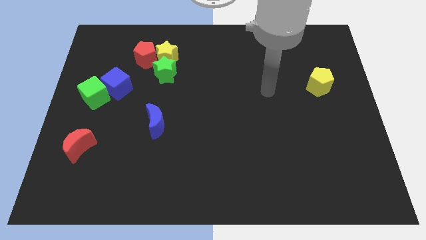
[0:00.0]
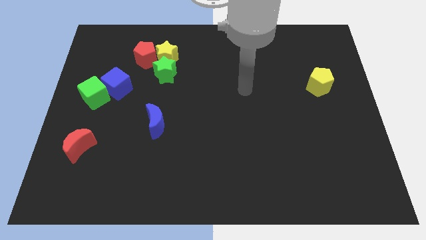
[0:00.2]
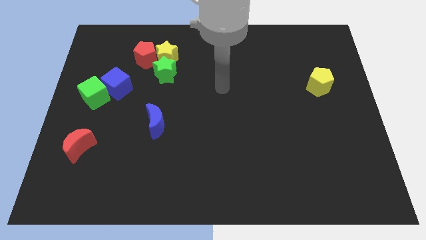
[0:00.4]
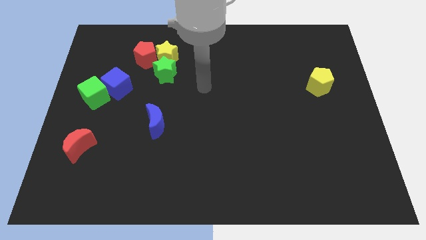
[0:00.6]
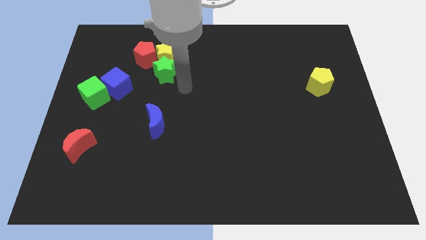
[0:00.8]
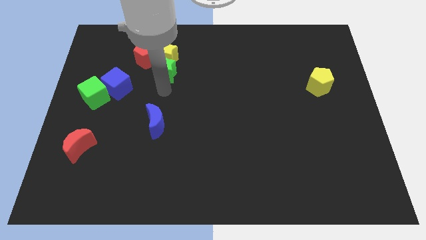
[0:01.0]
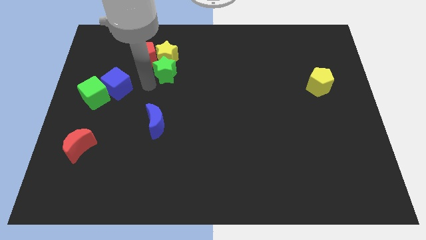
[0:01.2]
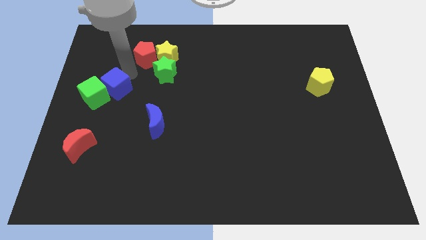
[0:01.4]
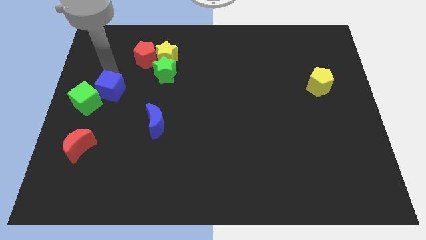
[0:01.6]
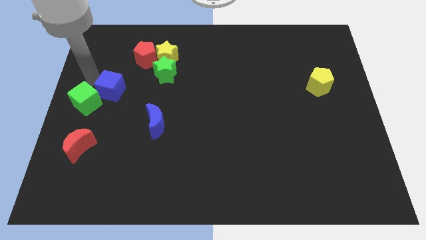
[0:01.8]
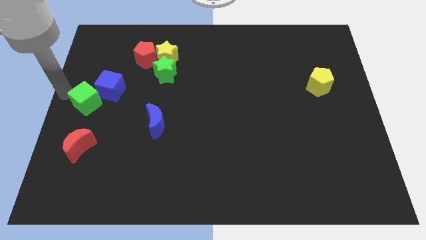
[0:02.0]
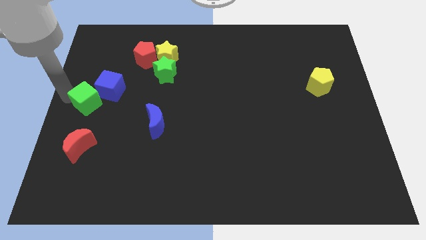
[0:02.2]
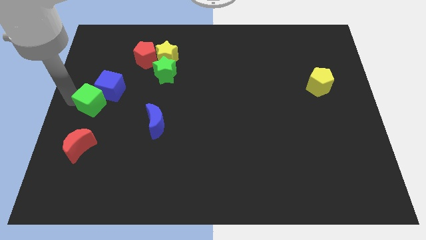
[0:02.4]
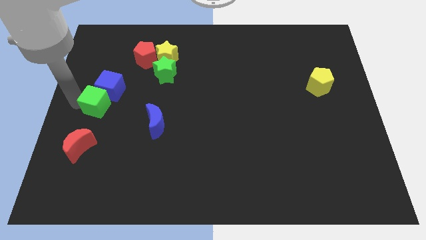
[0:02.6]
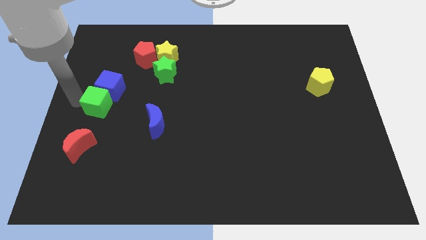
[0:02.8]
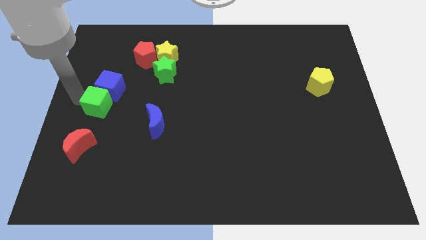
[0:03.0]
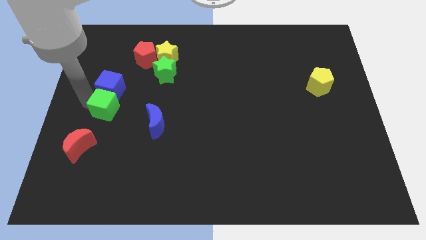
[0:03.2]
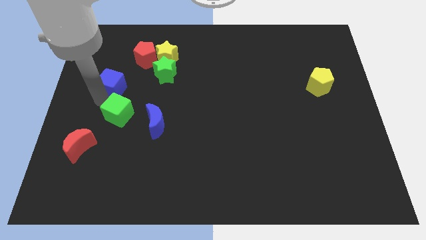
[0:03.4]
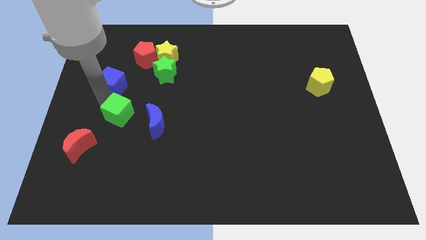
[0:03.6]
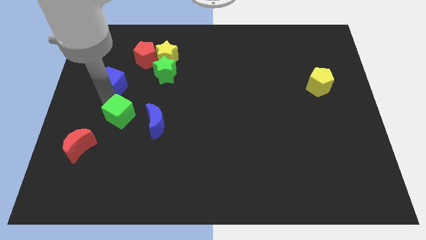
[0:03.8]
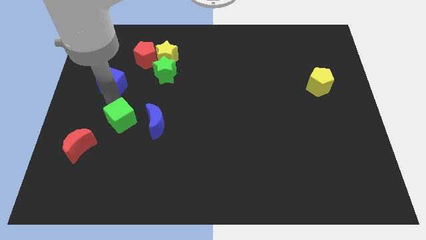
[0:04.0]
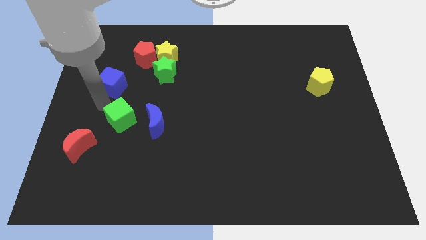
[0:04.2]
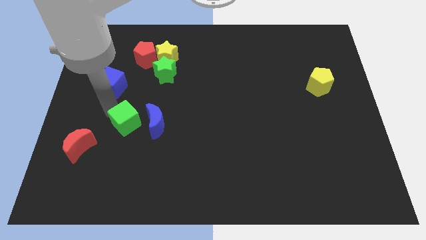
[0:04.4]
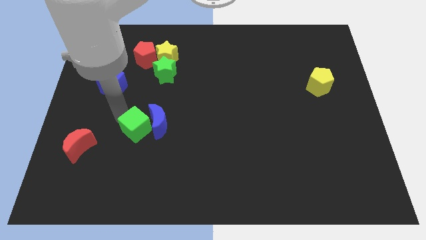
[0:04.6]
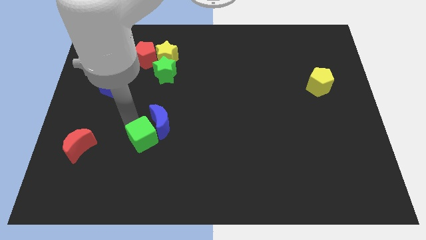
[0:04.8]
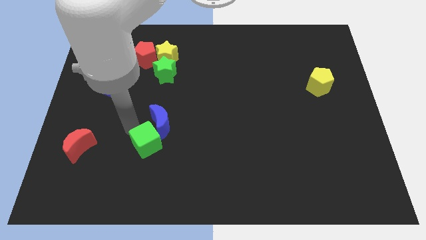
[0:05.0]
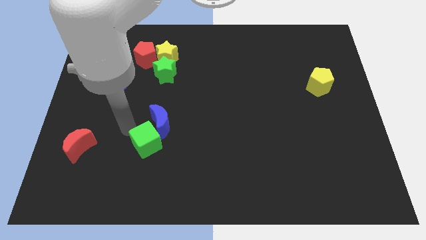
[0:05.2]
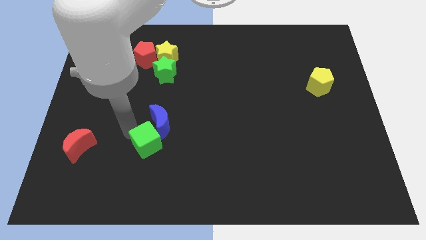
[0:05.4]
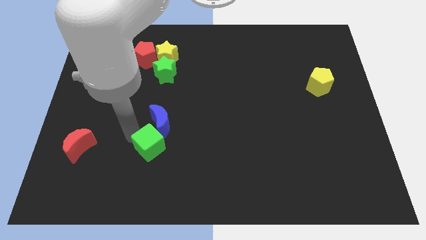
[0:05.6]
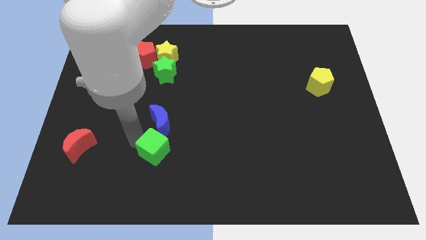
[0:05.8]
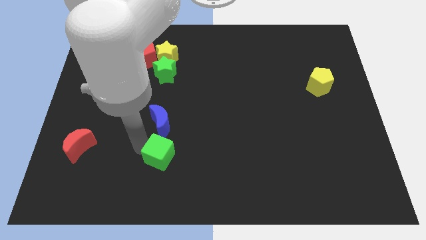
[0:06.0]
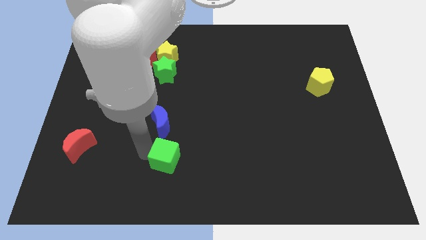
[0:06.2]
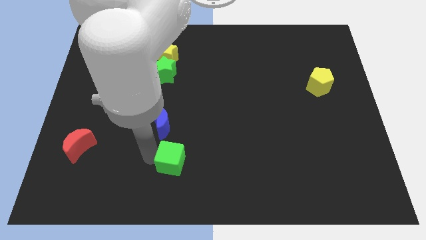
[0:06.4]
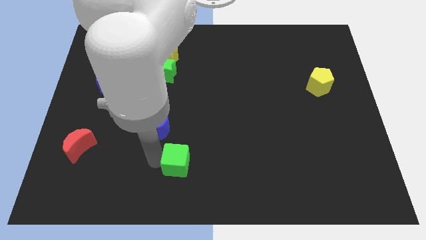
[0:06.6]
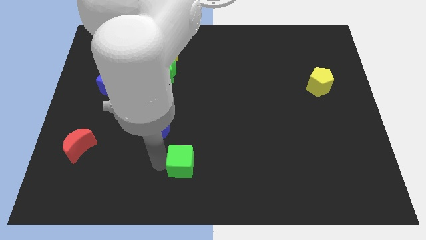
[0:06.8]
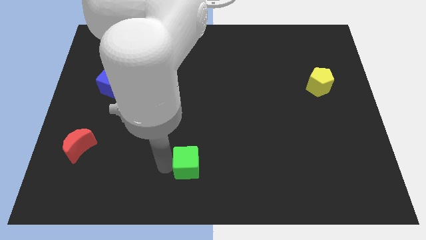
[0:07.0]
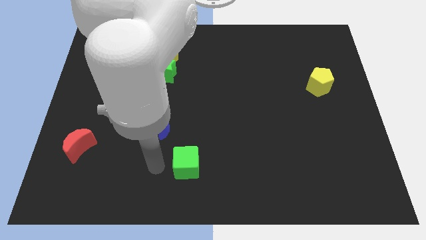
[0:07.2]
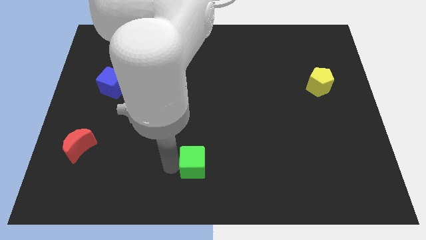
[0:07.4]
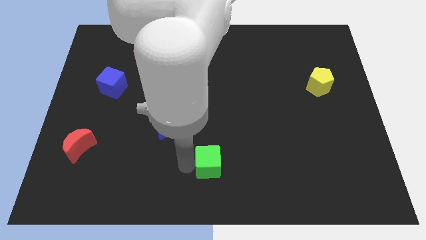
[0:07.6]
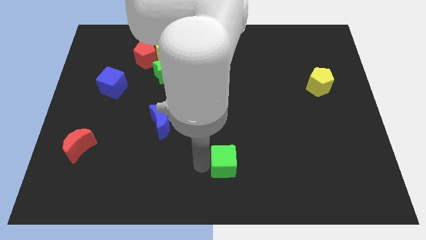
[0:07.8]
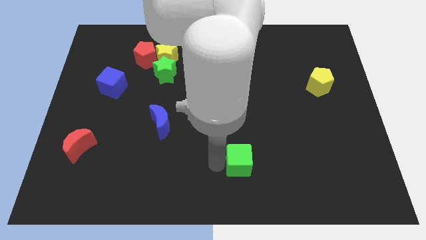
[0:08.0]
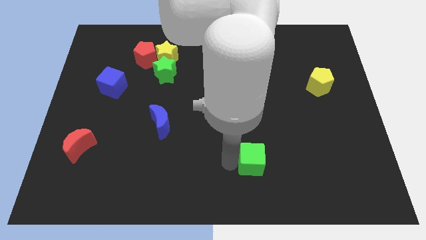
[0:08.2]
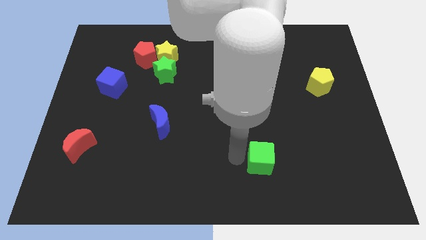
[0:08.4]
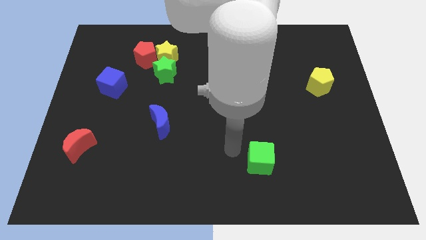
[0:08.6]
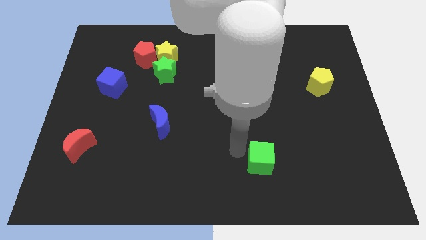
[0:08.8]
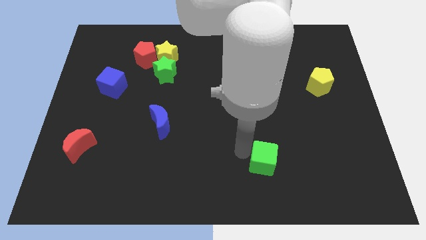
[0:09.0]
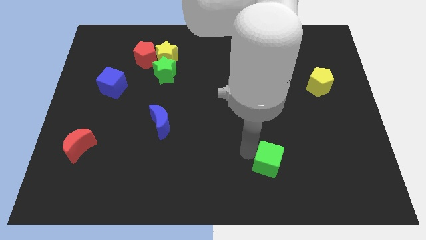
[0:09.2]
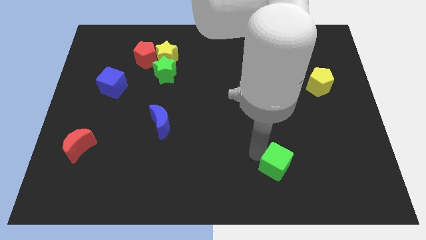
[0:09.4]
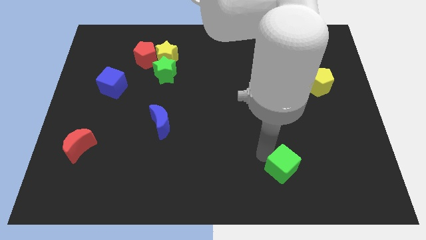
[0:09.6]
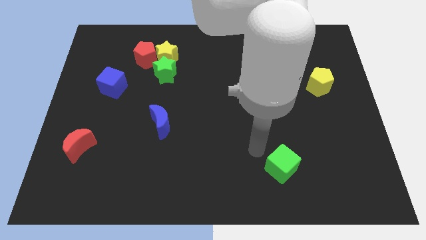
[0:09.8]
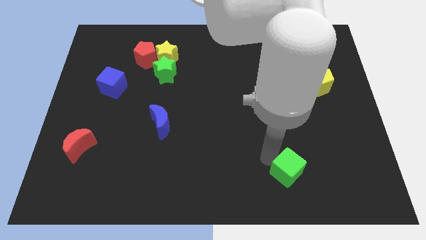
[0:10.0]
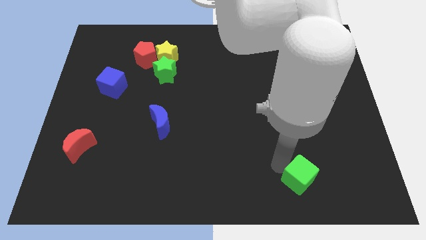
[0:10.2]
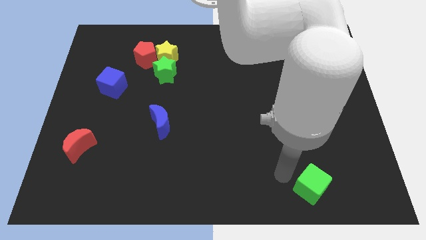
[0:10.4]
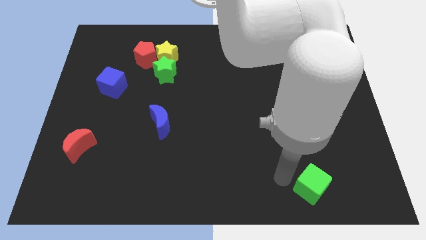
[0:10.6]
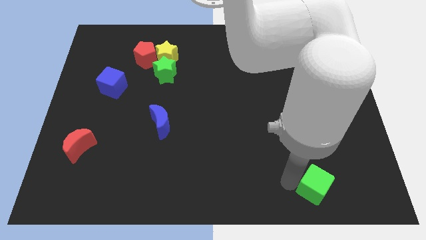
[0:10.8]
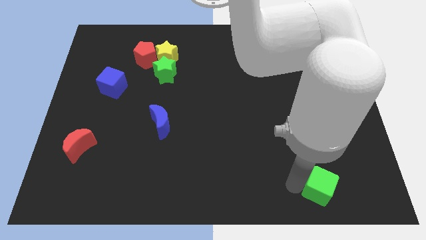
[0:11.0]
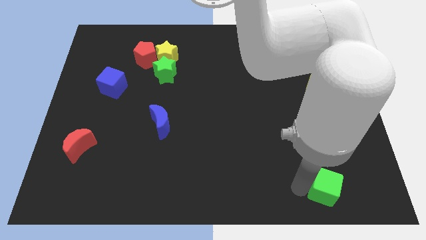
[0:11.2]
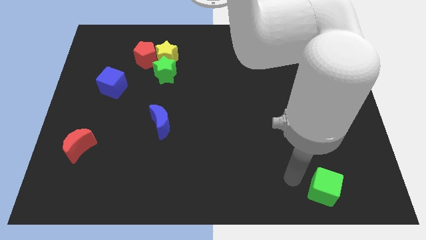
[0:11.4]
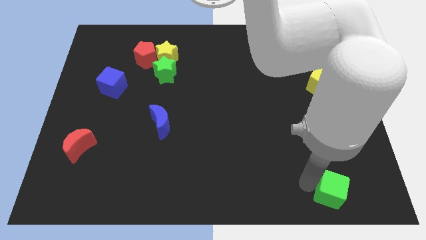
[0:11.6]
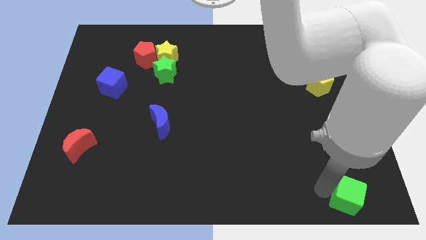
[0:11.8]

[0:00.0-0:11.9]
slide the green cube to the bottom right corner

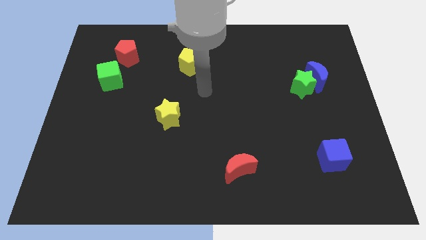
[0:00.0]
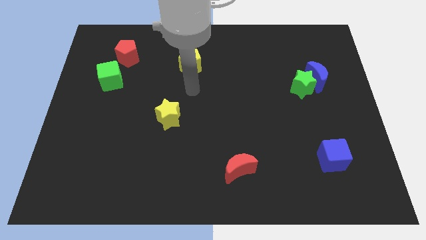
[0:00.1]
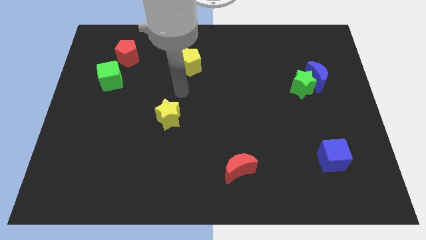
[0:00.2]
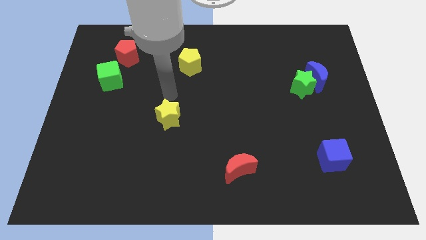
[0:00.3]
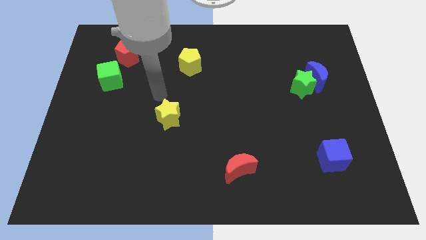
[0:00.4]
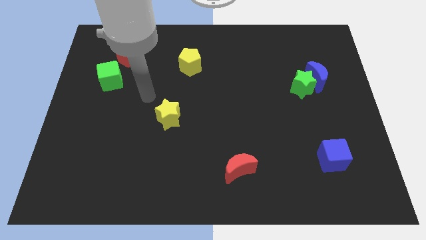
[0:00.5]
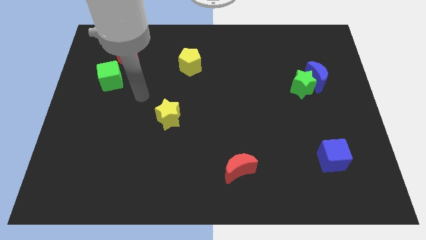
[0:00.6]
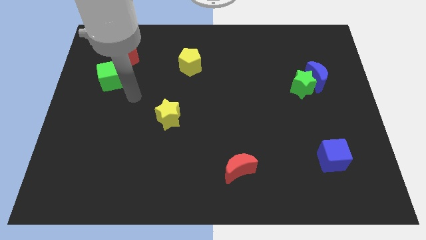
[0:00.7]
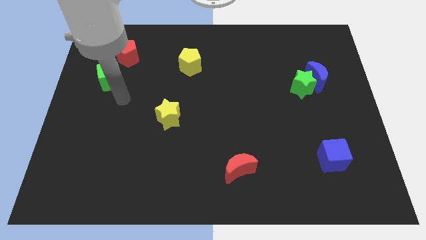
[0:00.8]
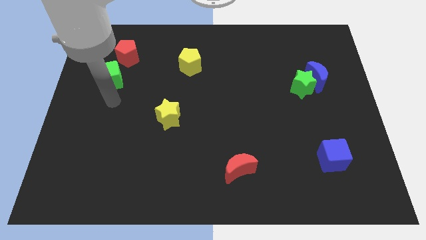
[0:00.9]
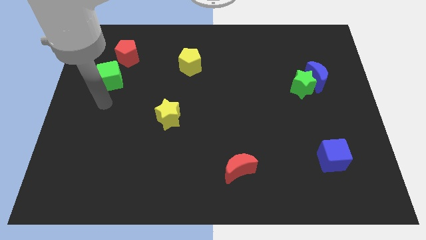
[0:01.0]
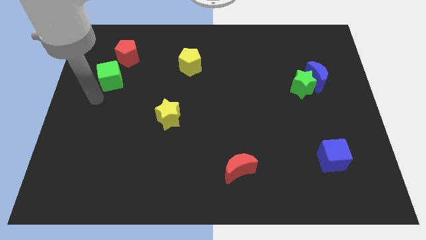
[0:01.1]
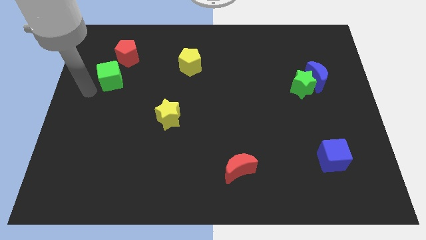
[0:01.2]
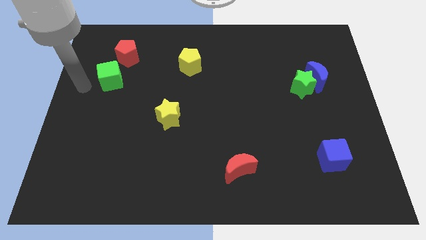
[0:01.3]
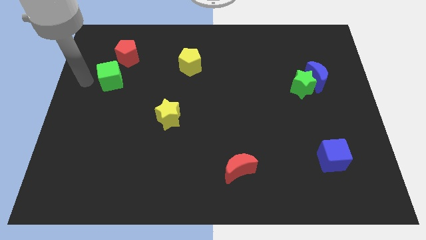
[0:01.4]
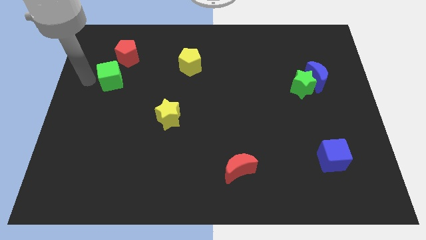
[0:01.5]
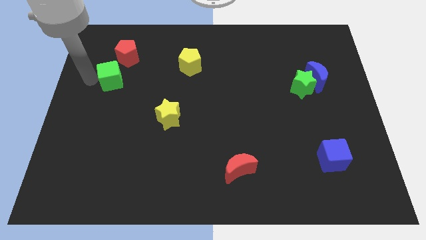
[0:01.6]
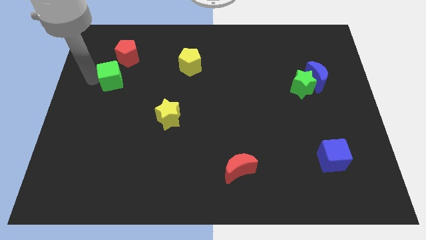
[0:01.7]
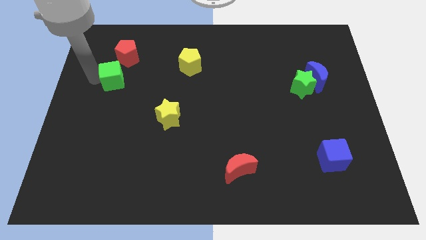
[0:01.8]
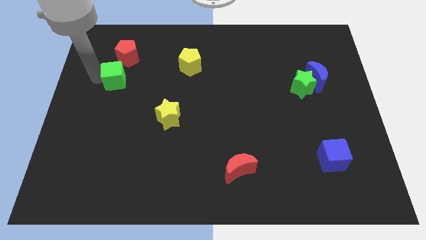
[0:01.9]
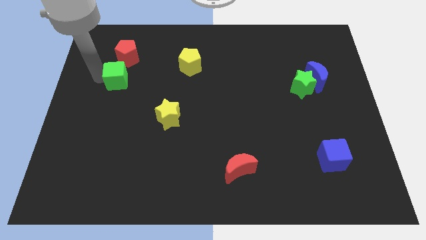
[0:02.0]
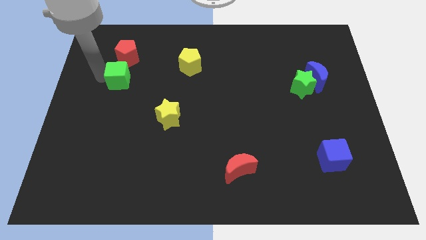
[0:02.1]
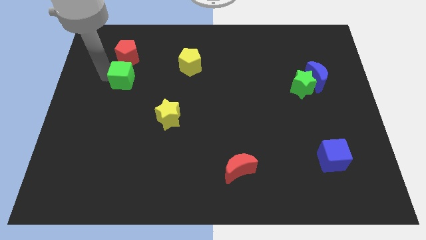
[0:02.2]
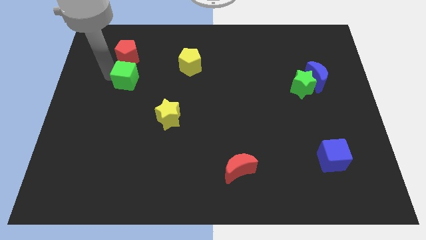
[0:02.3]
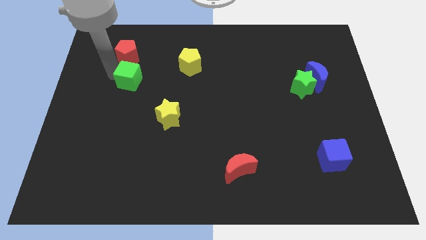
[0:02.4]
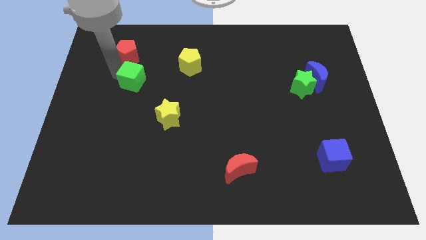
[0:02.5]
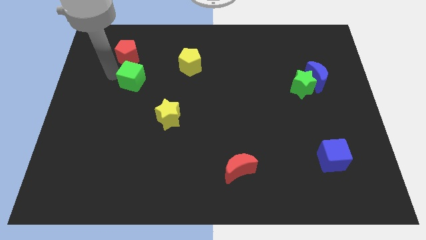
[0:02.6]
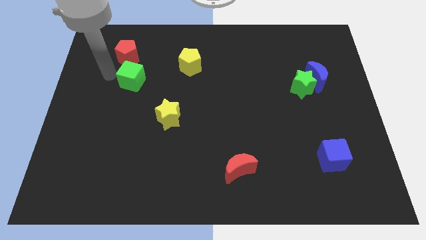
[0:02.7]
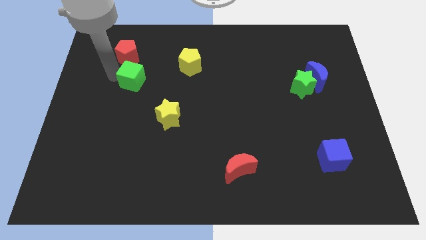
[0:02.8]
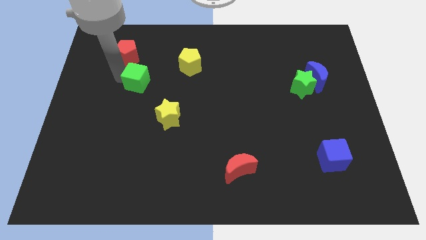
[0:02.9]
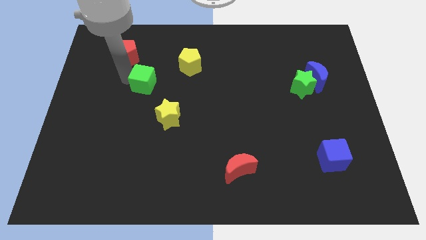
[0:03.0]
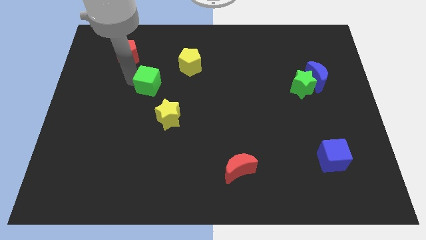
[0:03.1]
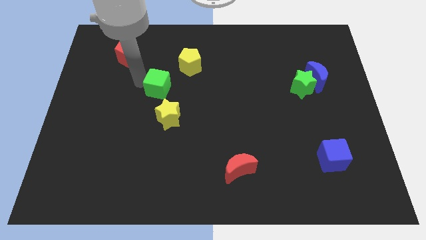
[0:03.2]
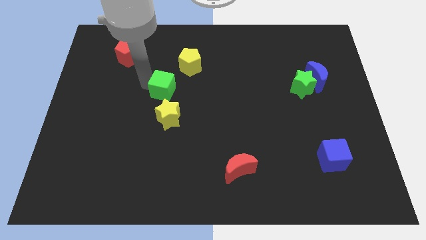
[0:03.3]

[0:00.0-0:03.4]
push the green cube to the center
